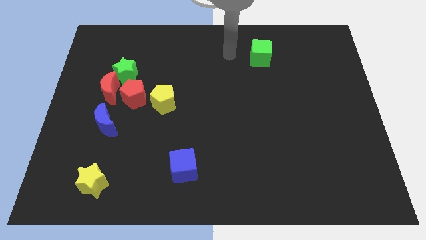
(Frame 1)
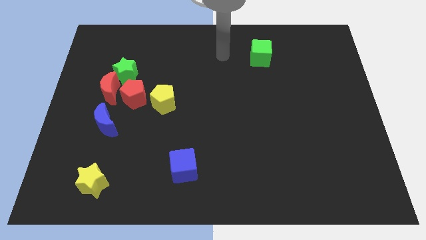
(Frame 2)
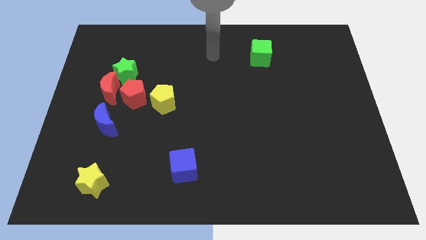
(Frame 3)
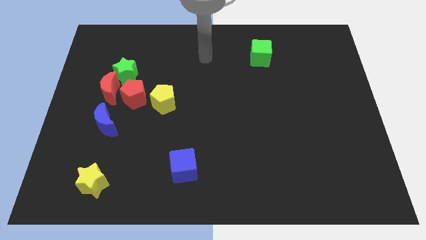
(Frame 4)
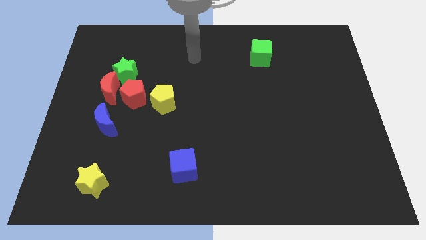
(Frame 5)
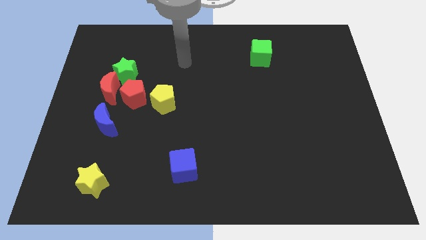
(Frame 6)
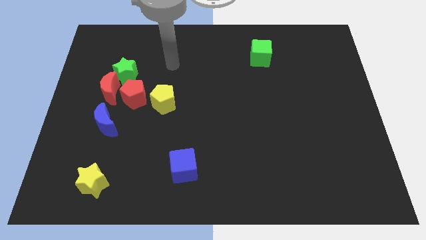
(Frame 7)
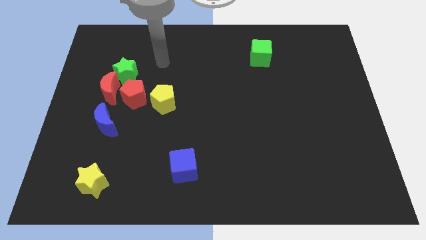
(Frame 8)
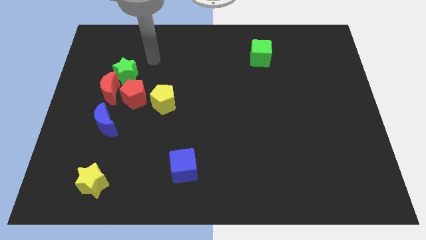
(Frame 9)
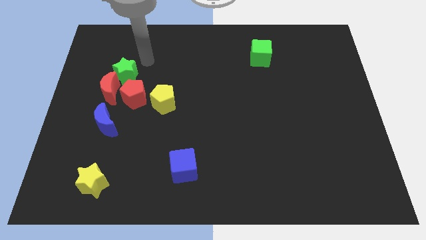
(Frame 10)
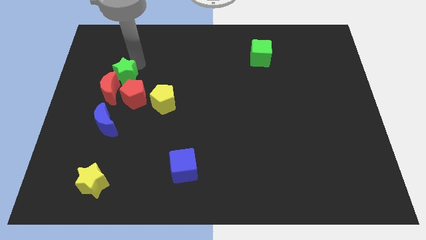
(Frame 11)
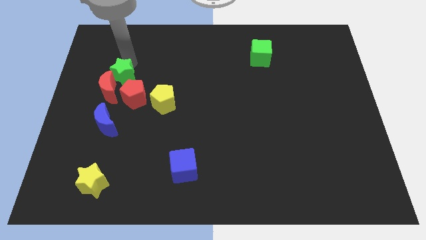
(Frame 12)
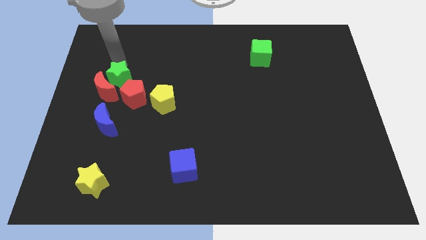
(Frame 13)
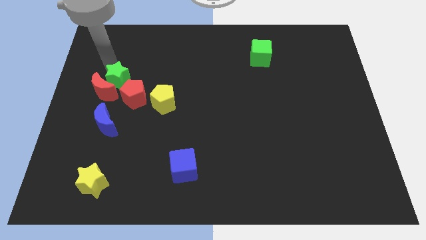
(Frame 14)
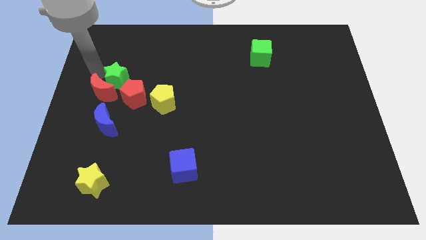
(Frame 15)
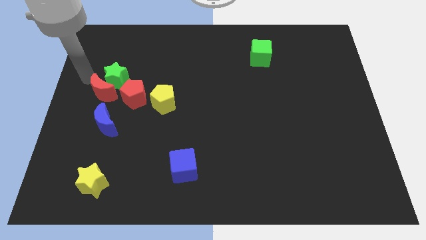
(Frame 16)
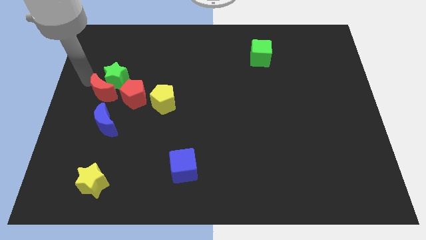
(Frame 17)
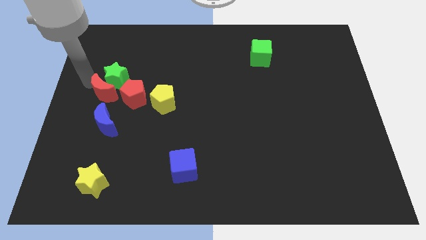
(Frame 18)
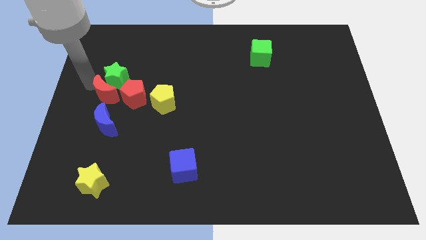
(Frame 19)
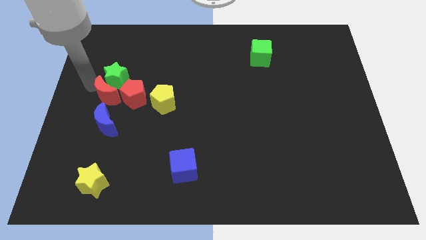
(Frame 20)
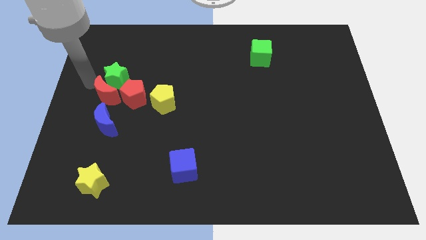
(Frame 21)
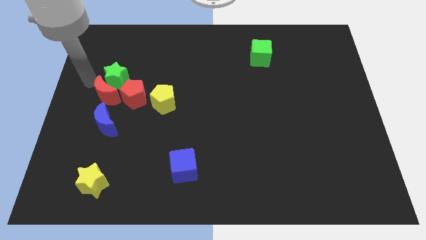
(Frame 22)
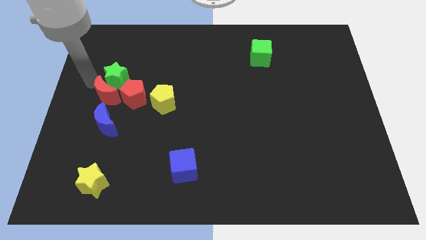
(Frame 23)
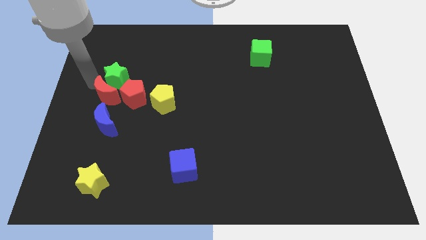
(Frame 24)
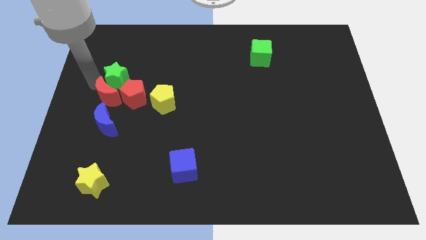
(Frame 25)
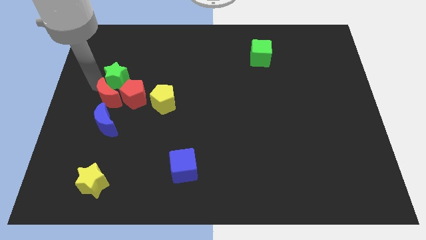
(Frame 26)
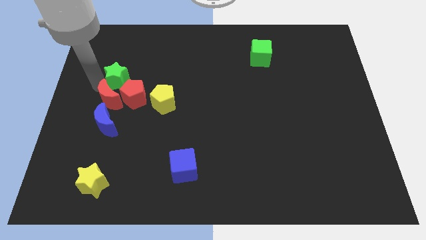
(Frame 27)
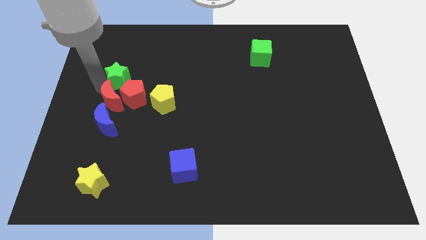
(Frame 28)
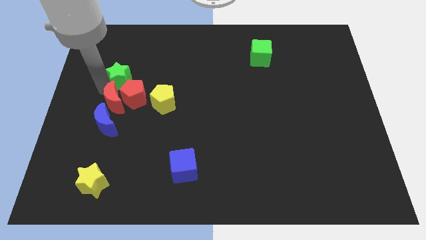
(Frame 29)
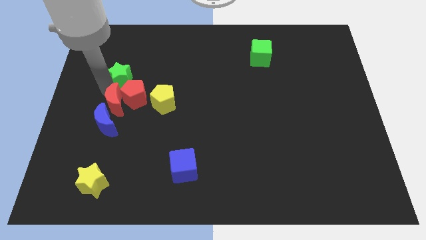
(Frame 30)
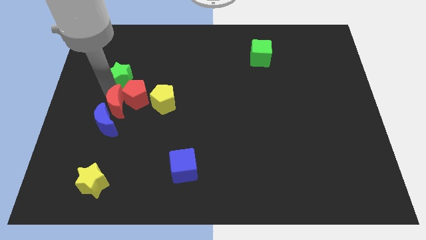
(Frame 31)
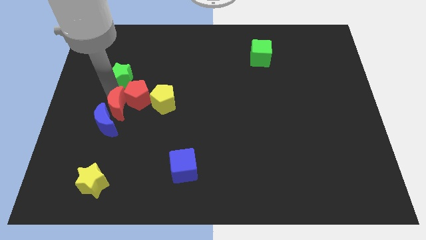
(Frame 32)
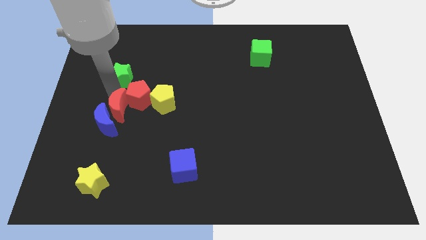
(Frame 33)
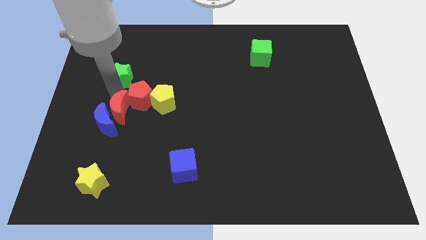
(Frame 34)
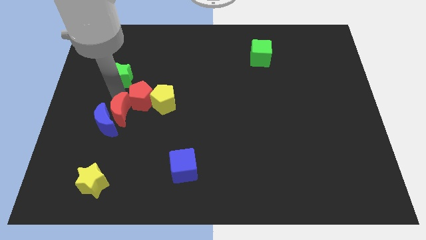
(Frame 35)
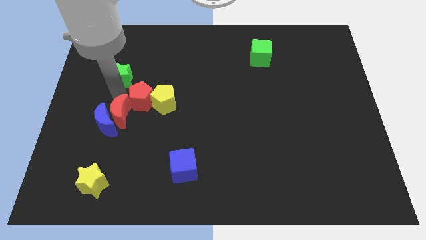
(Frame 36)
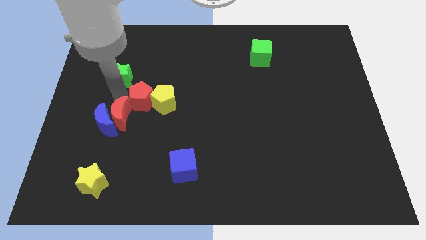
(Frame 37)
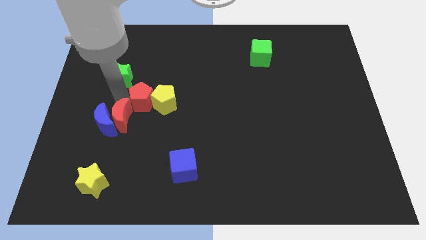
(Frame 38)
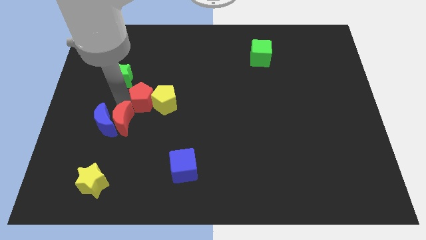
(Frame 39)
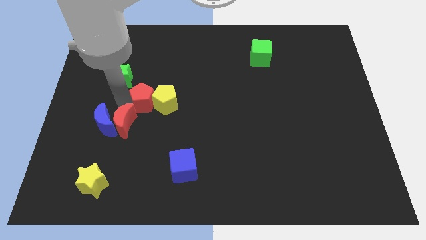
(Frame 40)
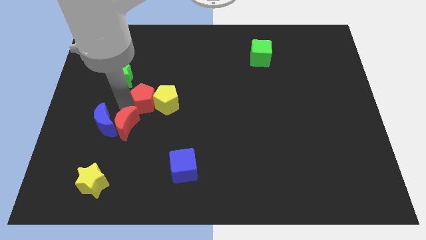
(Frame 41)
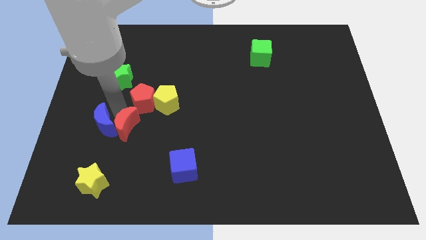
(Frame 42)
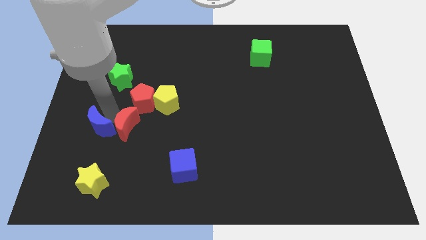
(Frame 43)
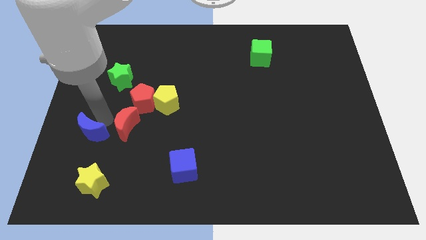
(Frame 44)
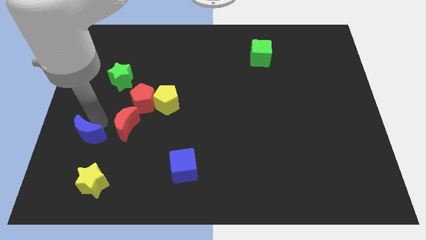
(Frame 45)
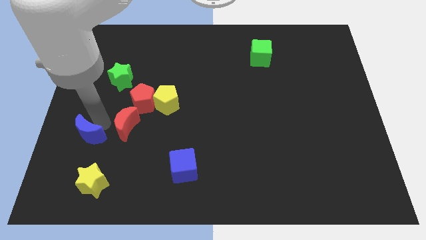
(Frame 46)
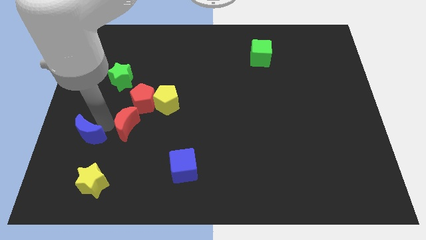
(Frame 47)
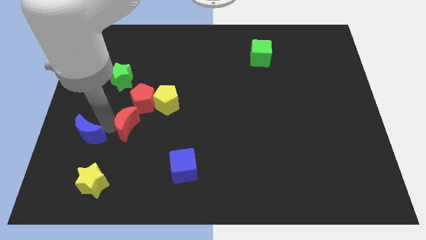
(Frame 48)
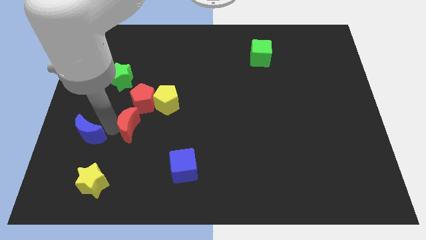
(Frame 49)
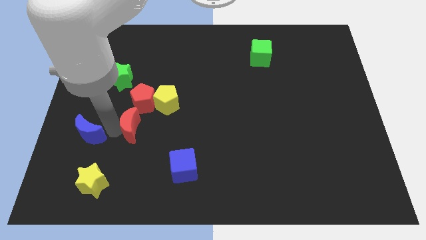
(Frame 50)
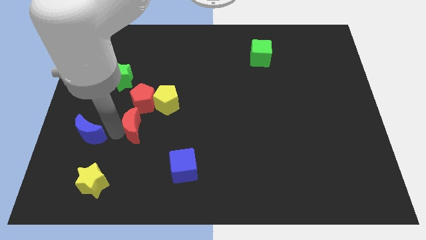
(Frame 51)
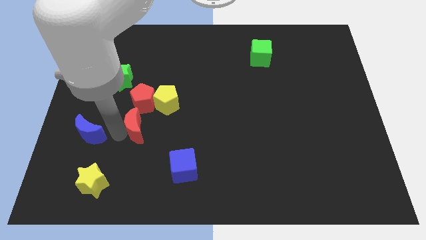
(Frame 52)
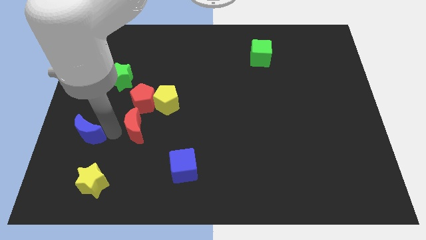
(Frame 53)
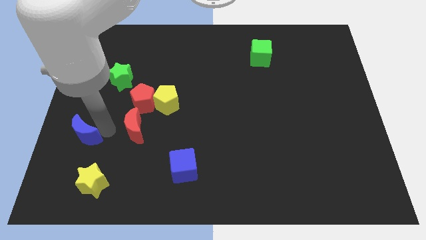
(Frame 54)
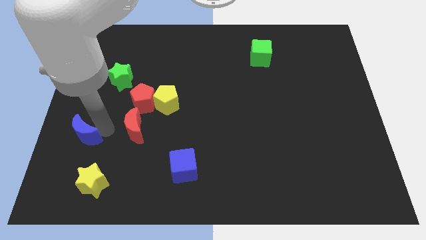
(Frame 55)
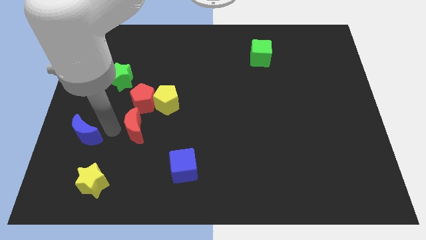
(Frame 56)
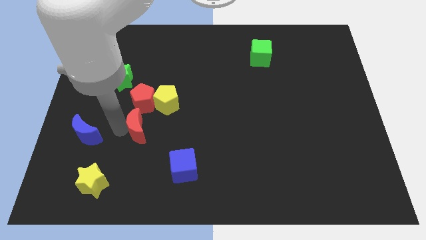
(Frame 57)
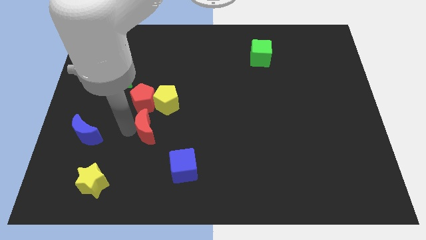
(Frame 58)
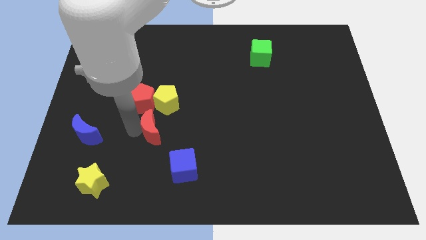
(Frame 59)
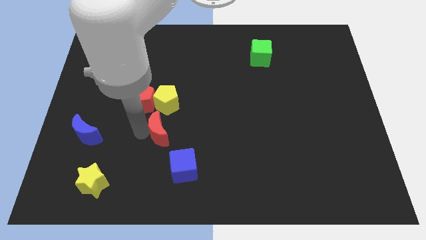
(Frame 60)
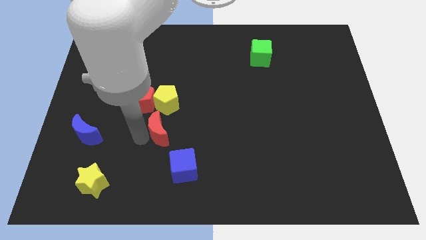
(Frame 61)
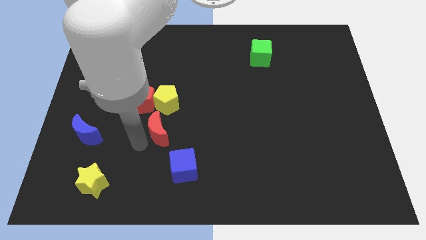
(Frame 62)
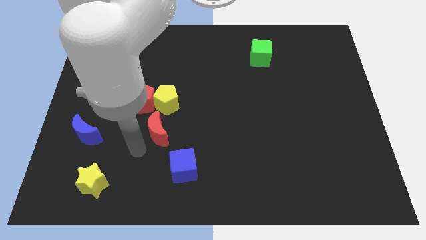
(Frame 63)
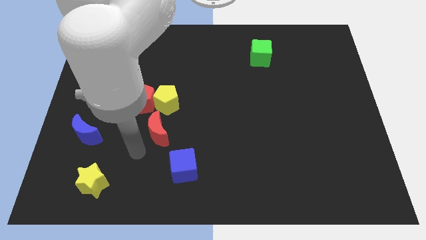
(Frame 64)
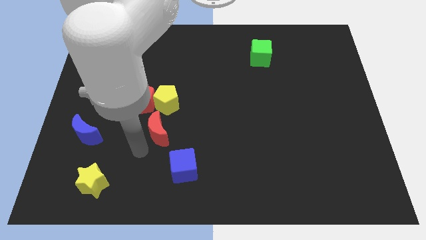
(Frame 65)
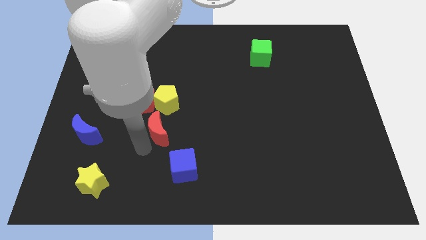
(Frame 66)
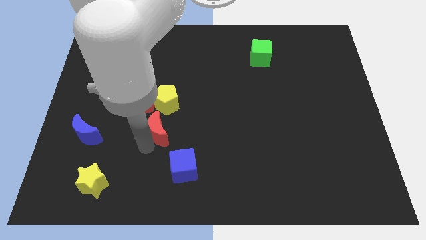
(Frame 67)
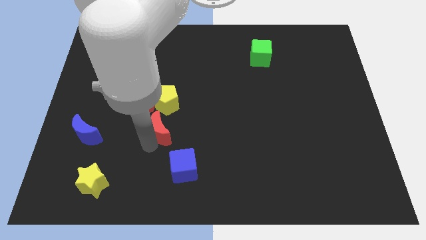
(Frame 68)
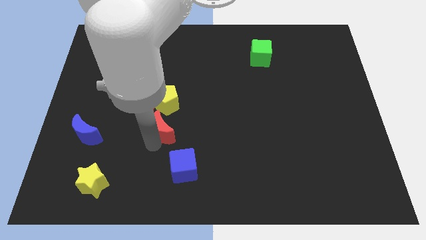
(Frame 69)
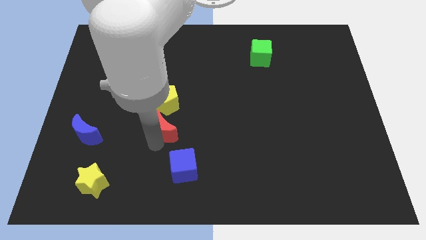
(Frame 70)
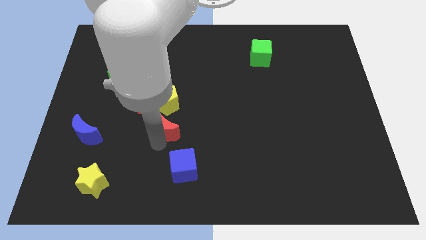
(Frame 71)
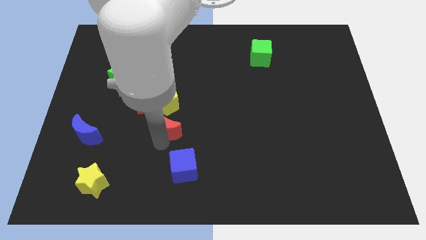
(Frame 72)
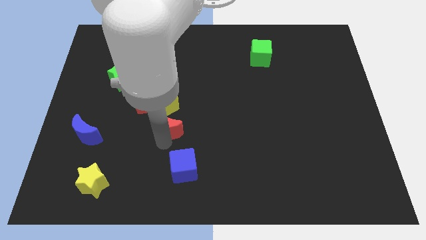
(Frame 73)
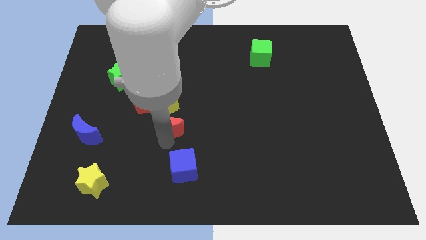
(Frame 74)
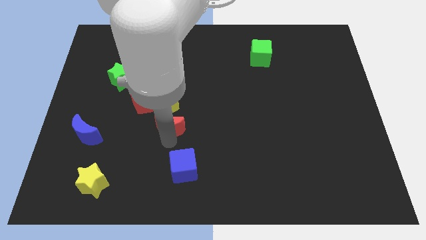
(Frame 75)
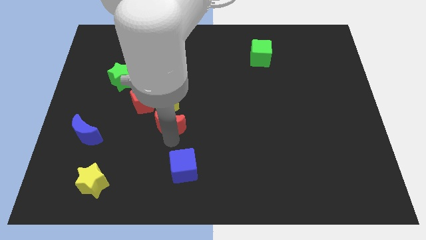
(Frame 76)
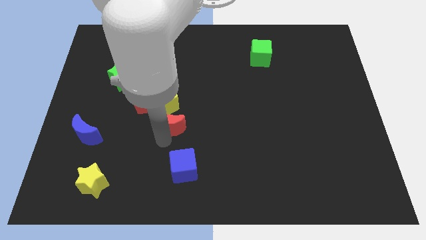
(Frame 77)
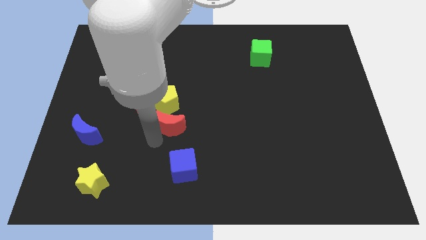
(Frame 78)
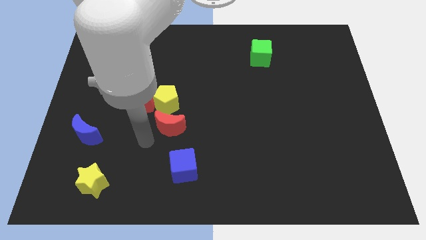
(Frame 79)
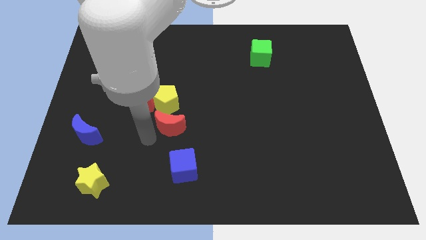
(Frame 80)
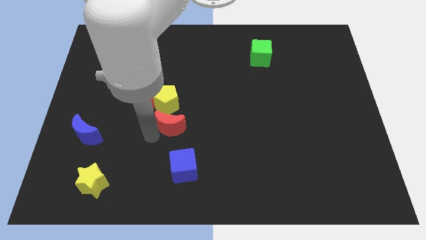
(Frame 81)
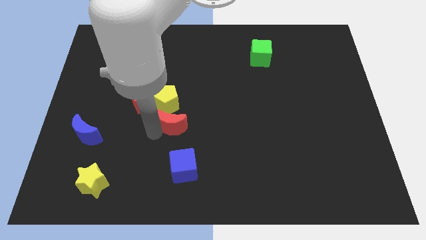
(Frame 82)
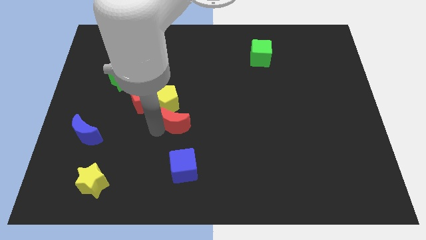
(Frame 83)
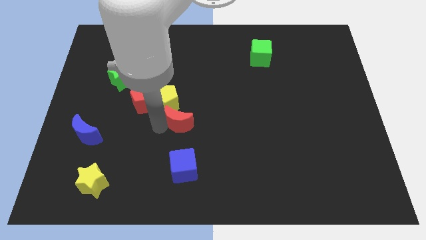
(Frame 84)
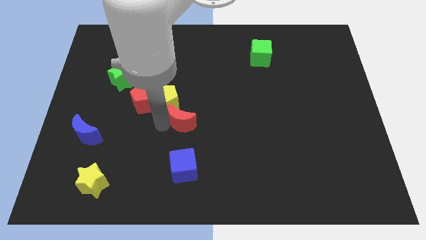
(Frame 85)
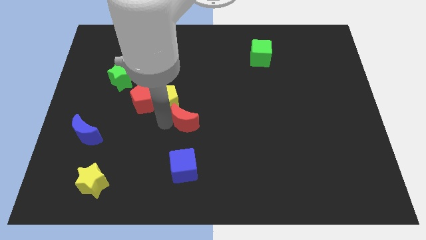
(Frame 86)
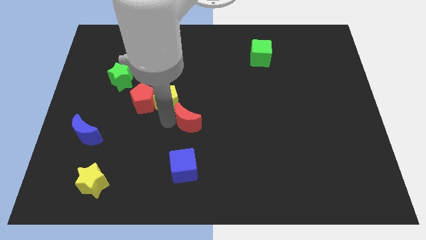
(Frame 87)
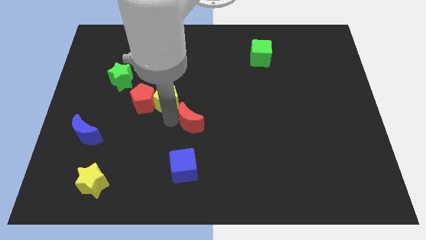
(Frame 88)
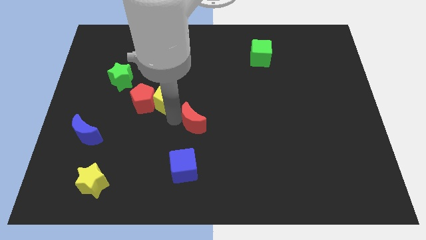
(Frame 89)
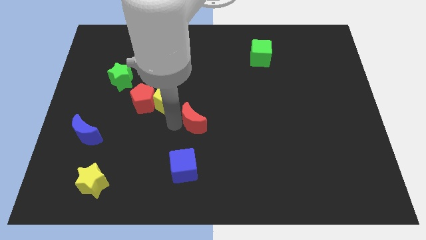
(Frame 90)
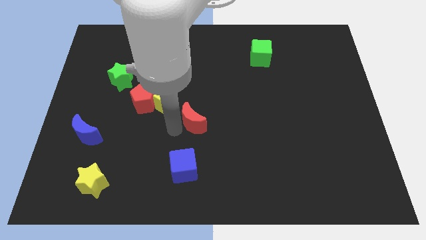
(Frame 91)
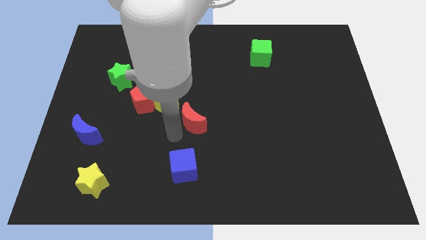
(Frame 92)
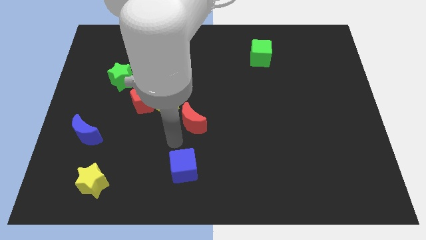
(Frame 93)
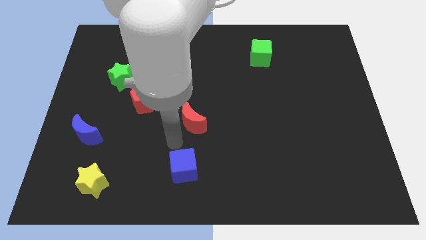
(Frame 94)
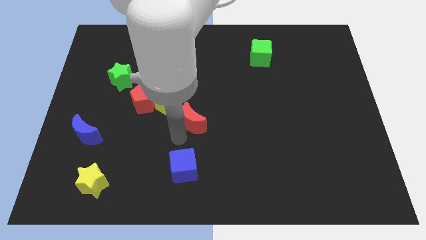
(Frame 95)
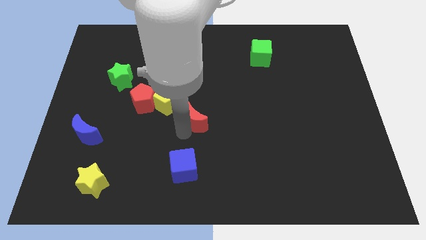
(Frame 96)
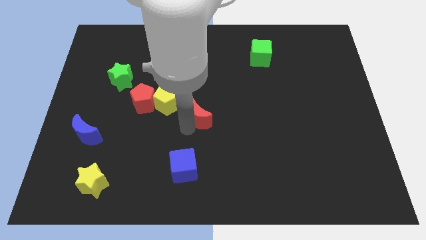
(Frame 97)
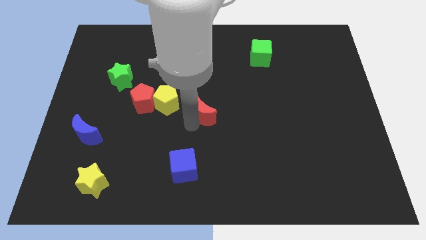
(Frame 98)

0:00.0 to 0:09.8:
slide the red moon to the right
